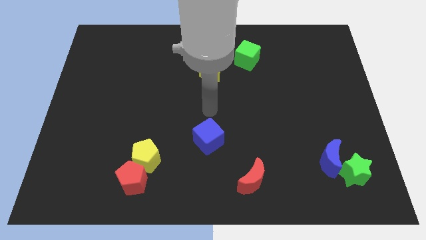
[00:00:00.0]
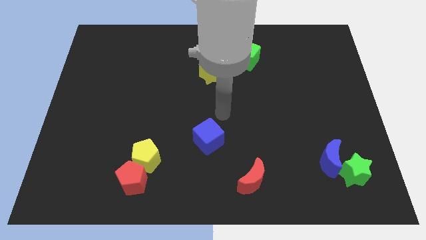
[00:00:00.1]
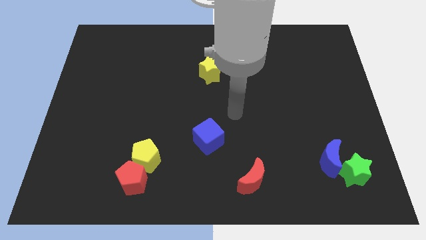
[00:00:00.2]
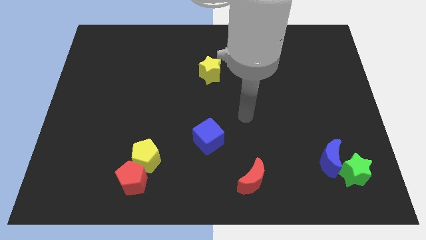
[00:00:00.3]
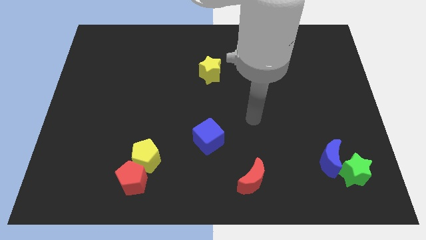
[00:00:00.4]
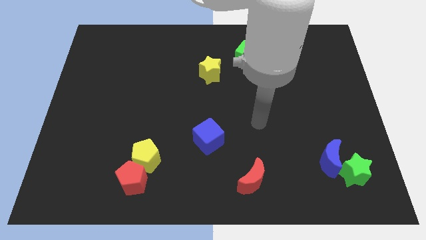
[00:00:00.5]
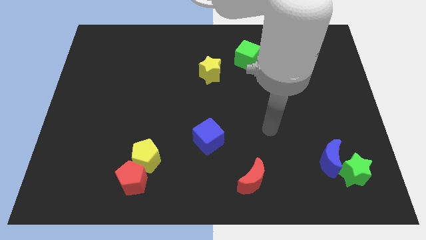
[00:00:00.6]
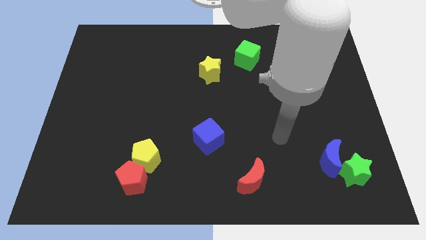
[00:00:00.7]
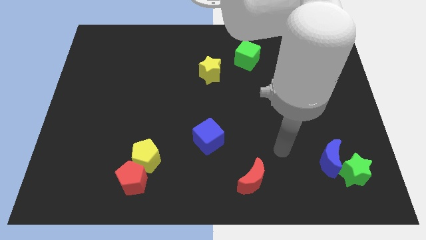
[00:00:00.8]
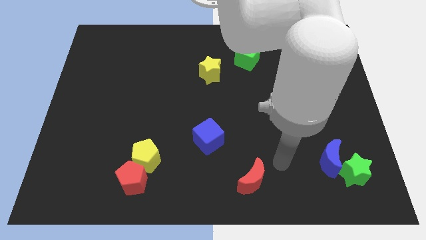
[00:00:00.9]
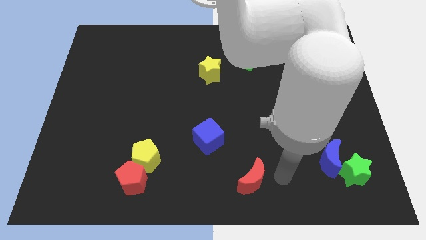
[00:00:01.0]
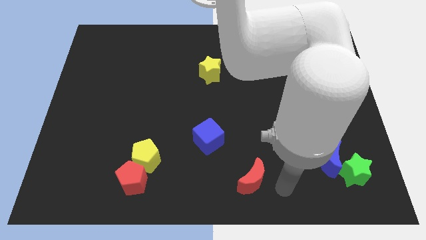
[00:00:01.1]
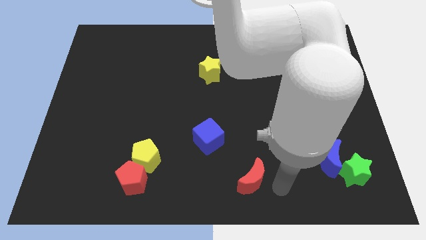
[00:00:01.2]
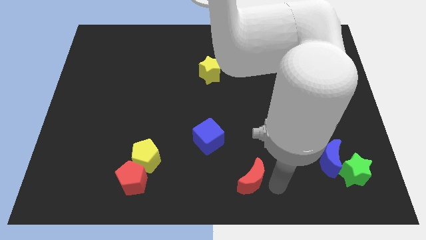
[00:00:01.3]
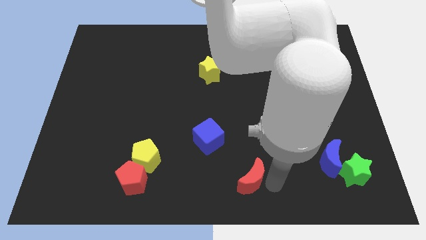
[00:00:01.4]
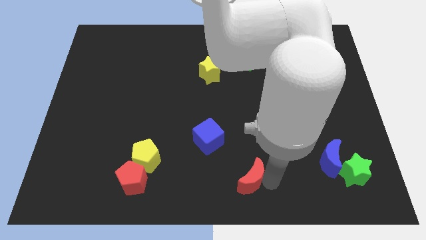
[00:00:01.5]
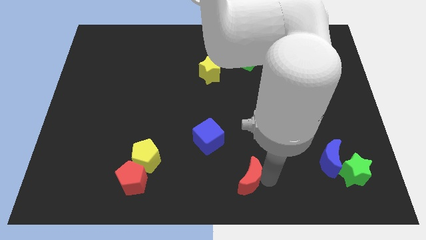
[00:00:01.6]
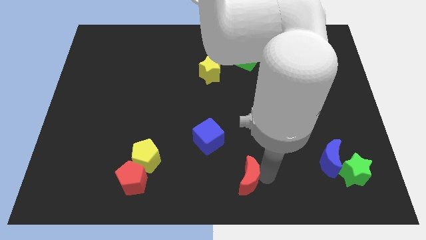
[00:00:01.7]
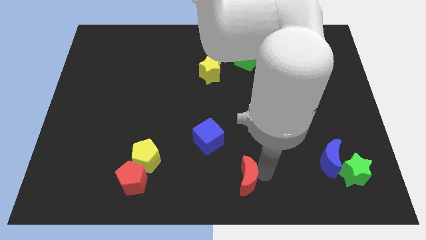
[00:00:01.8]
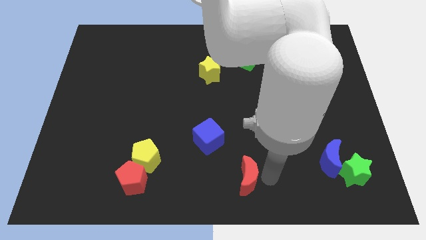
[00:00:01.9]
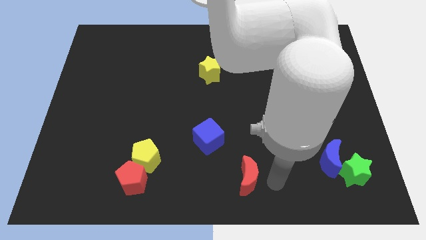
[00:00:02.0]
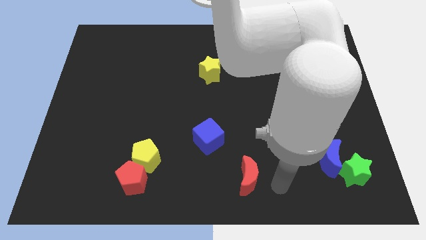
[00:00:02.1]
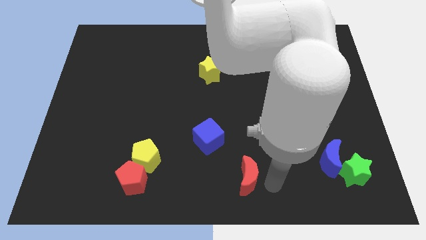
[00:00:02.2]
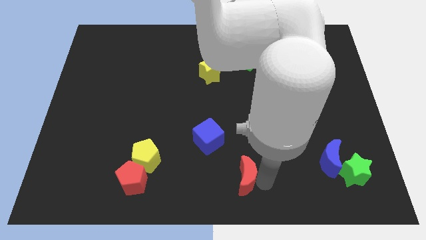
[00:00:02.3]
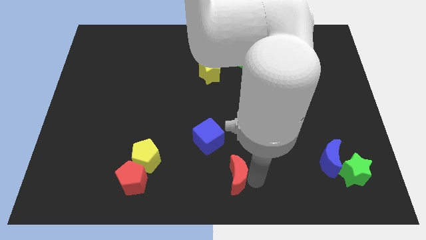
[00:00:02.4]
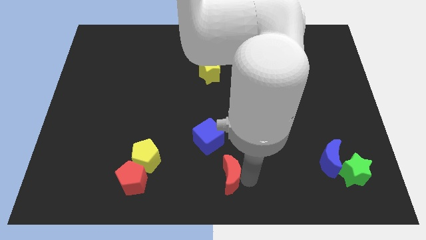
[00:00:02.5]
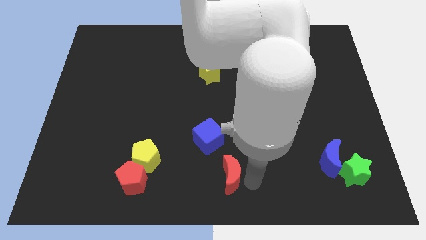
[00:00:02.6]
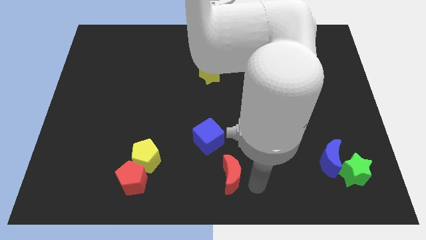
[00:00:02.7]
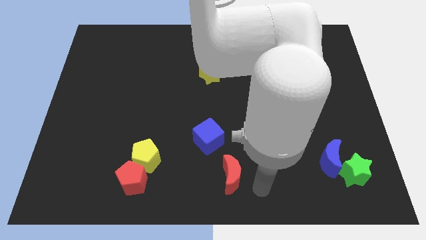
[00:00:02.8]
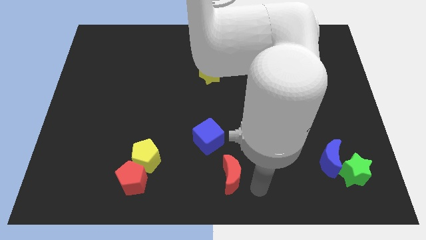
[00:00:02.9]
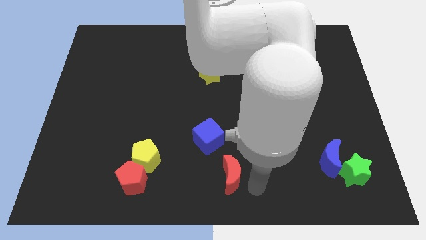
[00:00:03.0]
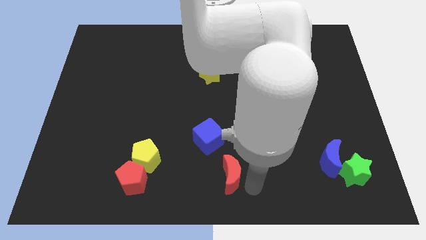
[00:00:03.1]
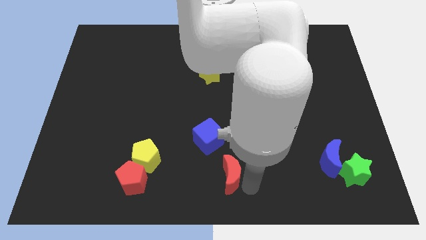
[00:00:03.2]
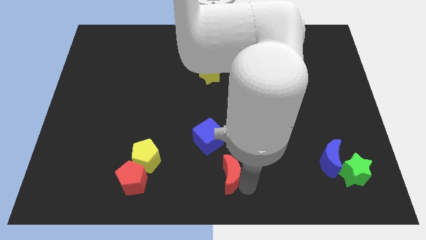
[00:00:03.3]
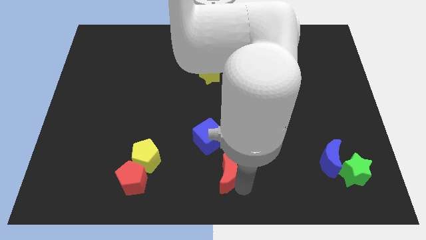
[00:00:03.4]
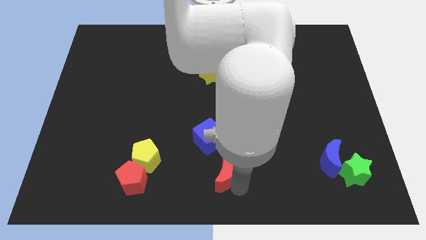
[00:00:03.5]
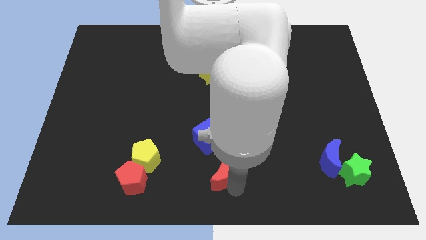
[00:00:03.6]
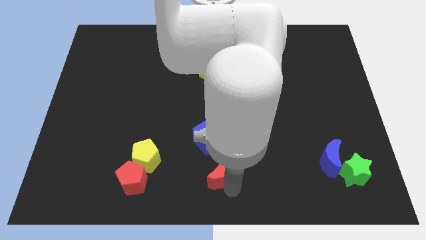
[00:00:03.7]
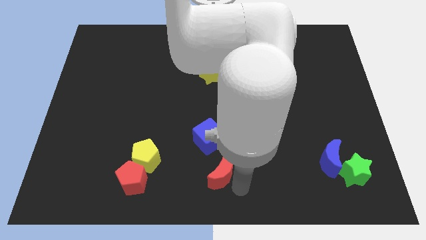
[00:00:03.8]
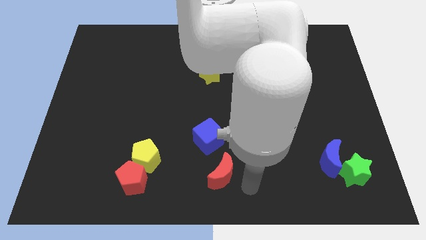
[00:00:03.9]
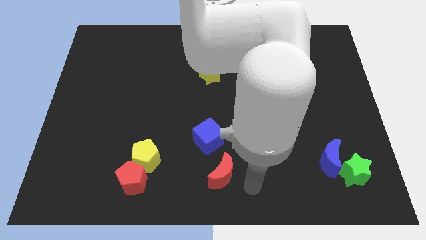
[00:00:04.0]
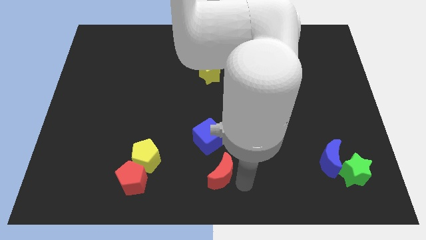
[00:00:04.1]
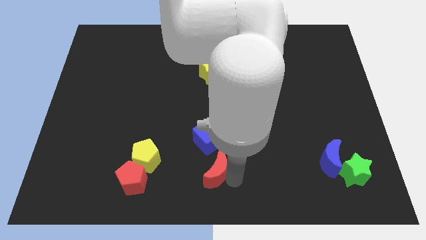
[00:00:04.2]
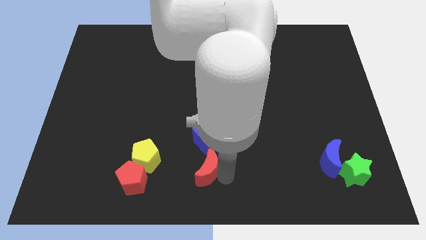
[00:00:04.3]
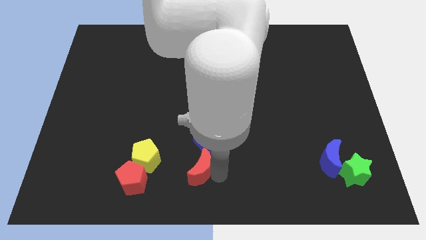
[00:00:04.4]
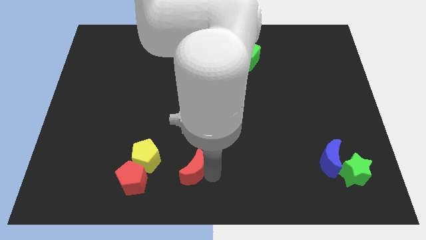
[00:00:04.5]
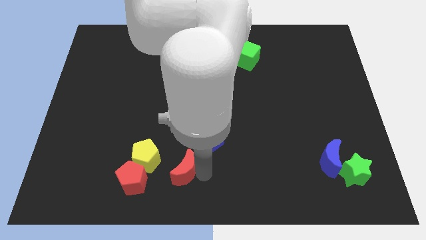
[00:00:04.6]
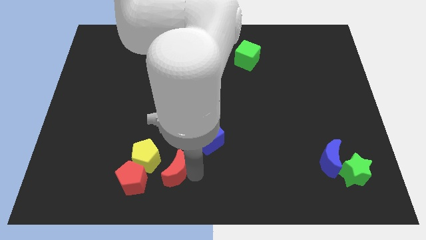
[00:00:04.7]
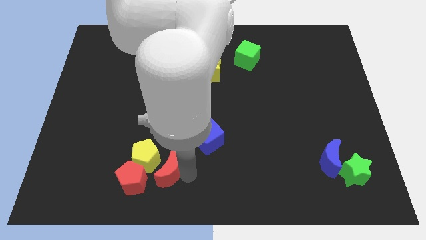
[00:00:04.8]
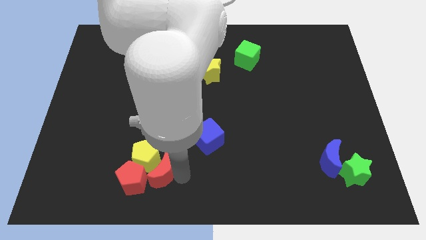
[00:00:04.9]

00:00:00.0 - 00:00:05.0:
put the red moon to the yellow pentagon

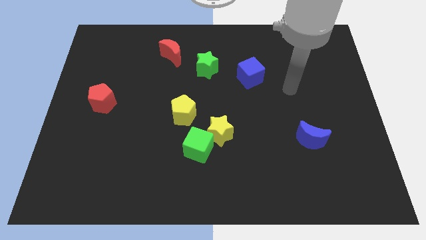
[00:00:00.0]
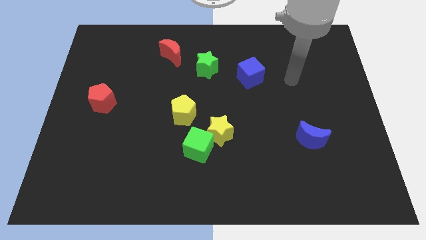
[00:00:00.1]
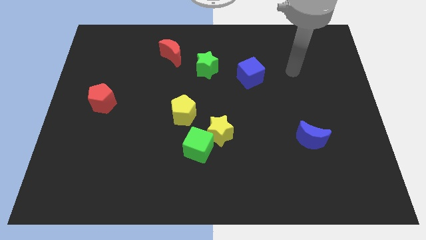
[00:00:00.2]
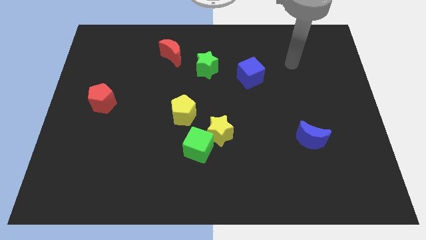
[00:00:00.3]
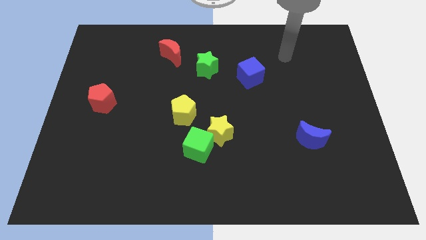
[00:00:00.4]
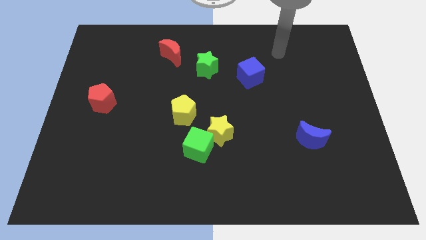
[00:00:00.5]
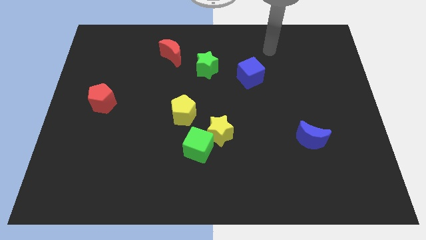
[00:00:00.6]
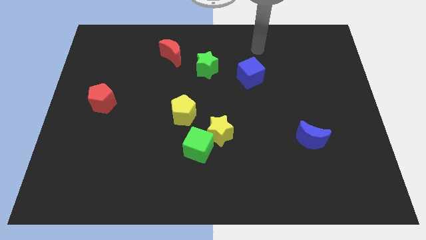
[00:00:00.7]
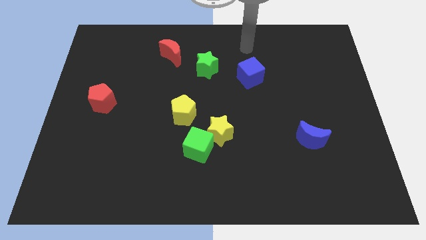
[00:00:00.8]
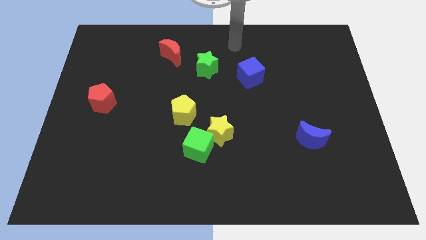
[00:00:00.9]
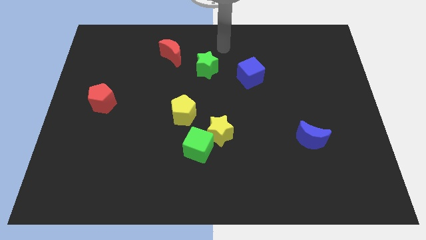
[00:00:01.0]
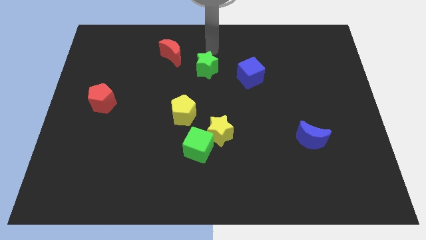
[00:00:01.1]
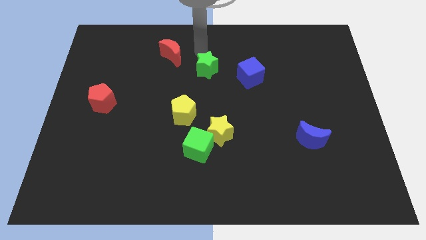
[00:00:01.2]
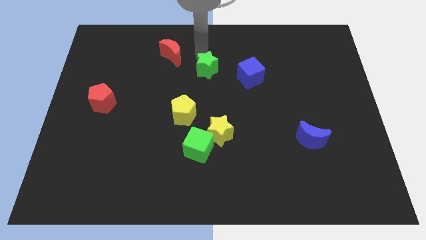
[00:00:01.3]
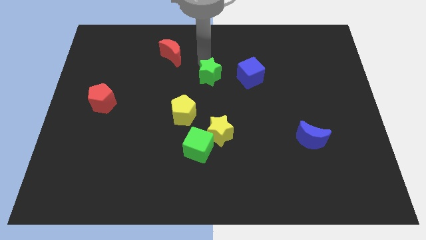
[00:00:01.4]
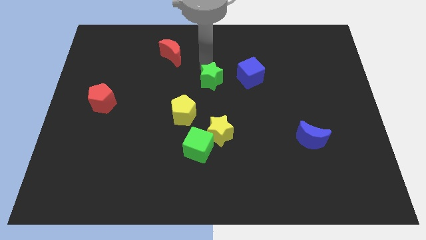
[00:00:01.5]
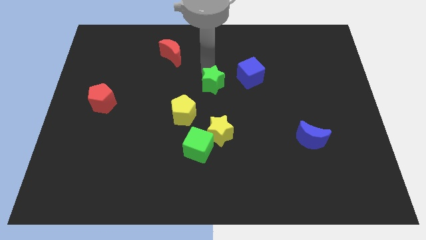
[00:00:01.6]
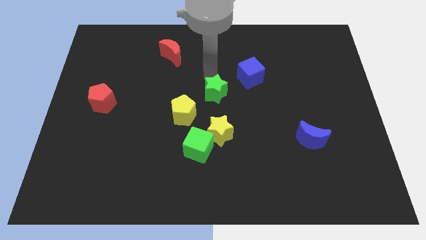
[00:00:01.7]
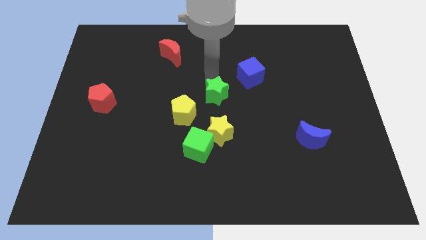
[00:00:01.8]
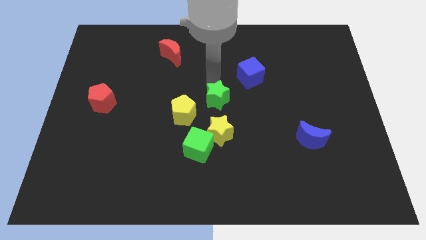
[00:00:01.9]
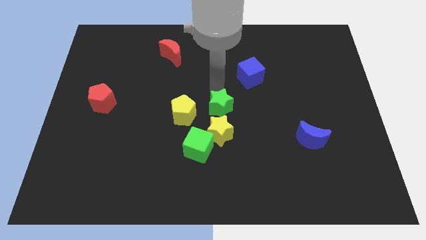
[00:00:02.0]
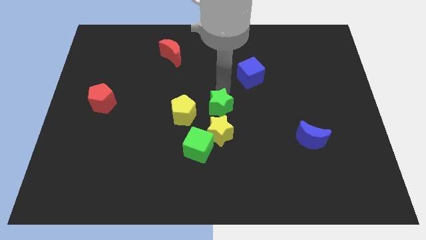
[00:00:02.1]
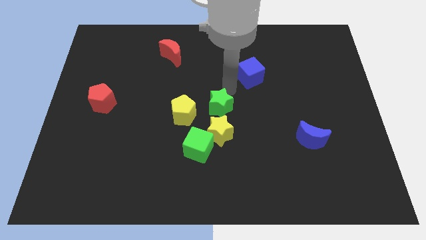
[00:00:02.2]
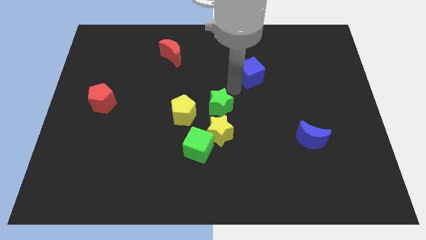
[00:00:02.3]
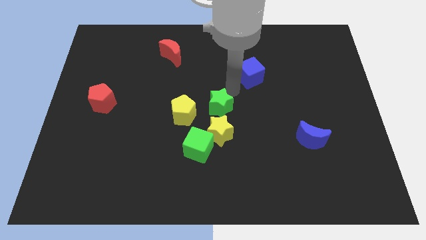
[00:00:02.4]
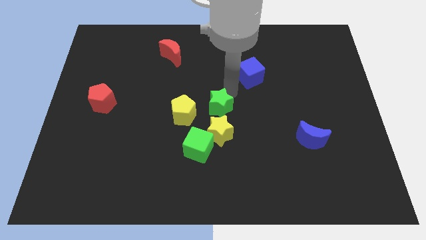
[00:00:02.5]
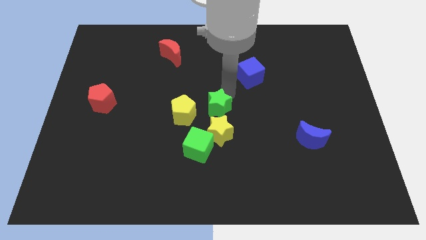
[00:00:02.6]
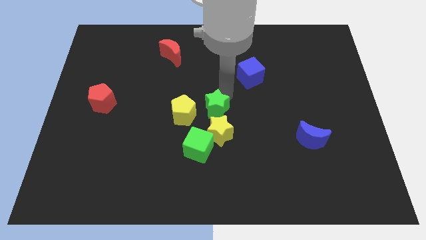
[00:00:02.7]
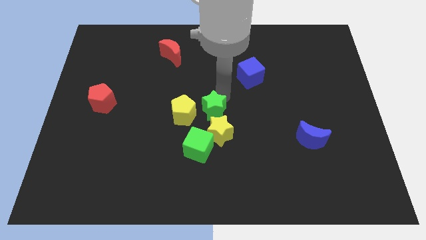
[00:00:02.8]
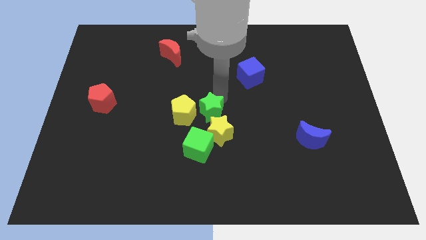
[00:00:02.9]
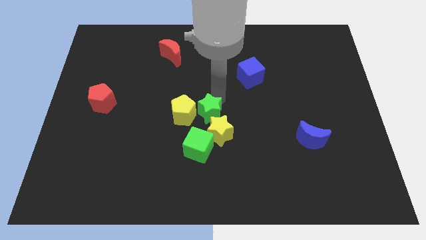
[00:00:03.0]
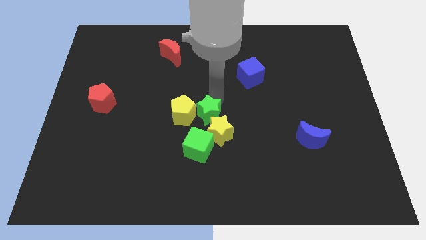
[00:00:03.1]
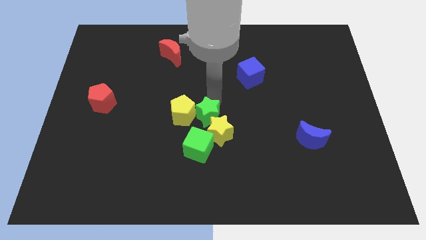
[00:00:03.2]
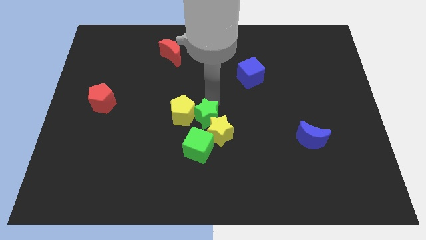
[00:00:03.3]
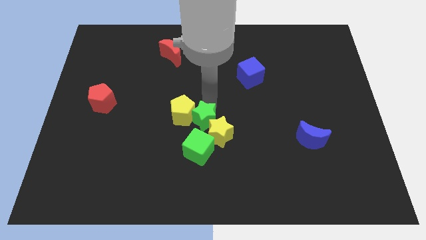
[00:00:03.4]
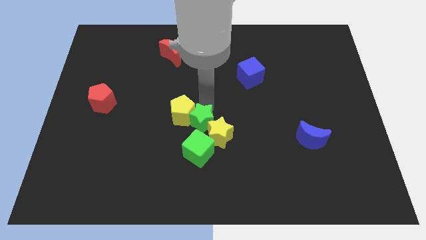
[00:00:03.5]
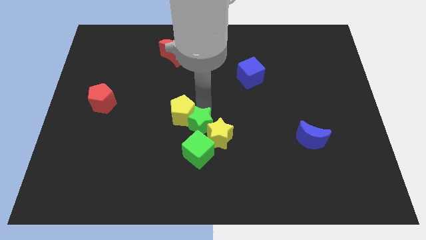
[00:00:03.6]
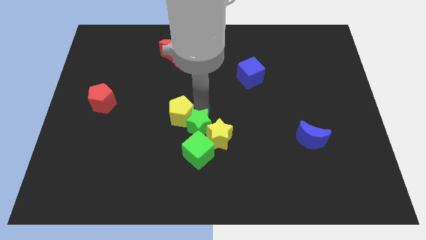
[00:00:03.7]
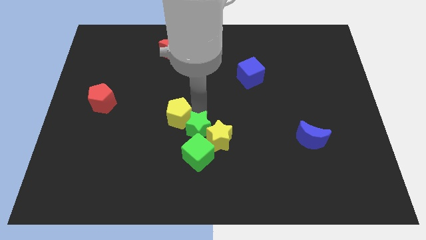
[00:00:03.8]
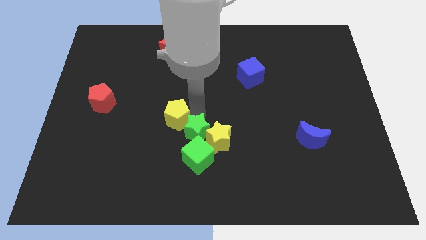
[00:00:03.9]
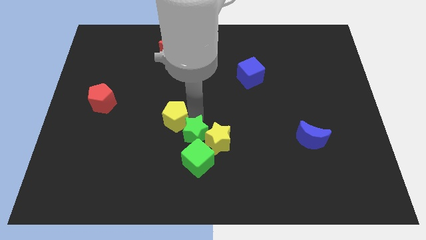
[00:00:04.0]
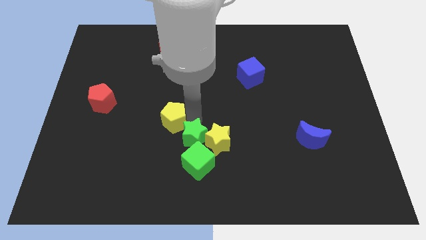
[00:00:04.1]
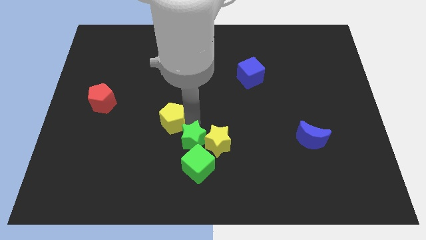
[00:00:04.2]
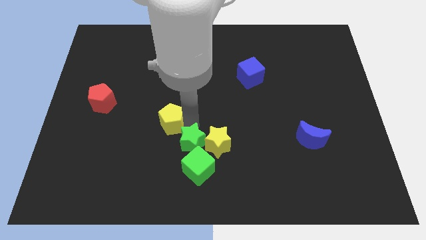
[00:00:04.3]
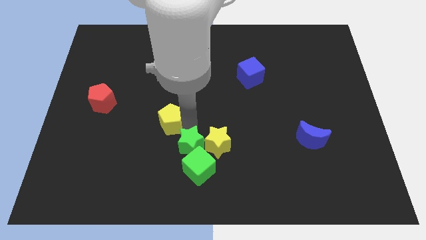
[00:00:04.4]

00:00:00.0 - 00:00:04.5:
slide the green star next to the green cube
